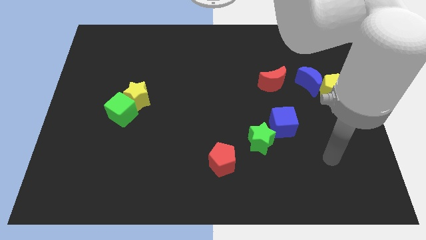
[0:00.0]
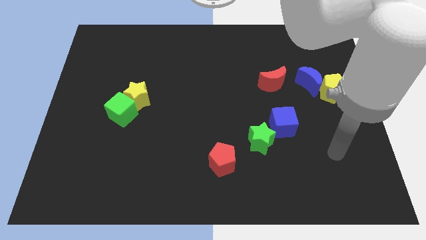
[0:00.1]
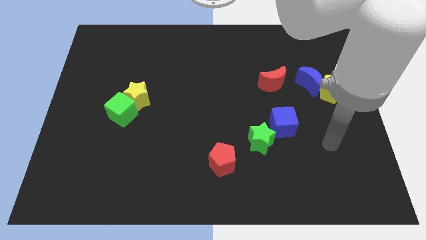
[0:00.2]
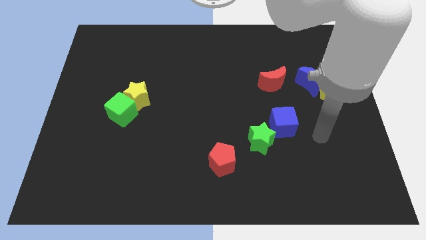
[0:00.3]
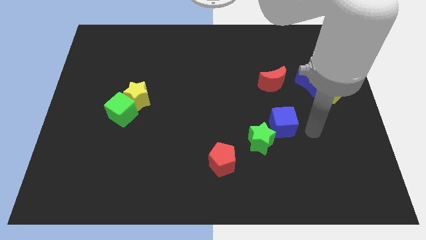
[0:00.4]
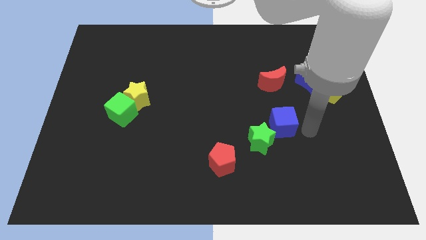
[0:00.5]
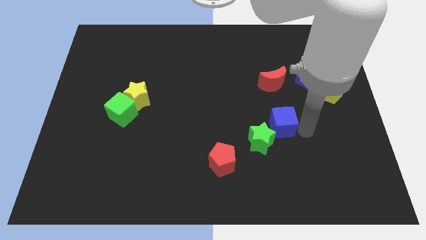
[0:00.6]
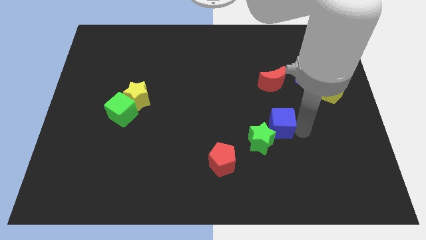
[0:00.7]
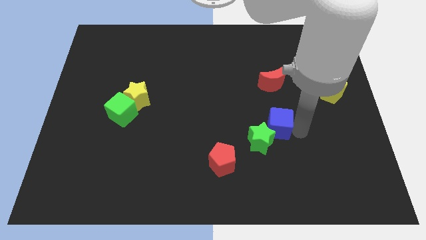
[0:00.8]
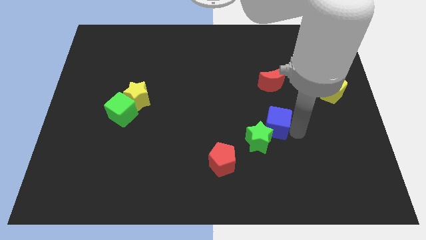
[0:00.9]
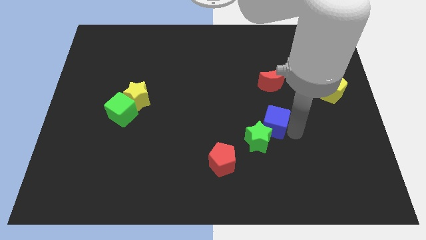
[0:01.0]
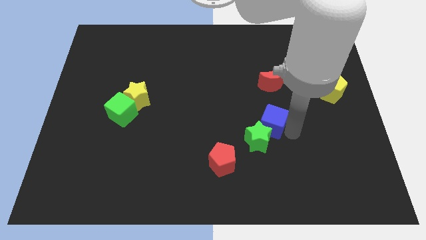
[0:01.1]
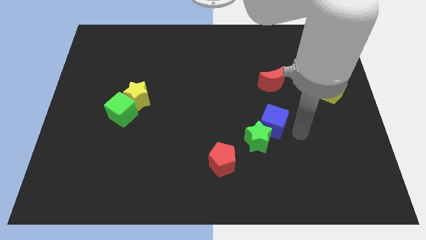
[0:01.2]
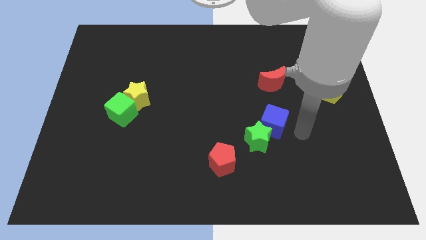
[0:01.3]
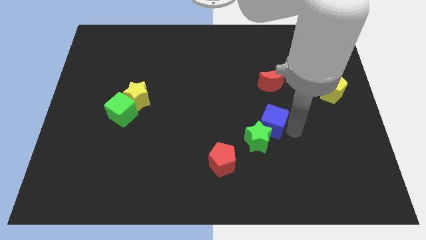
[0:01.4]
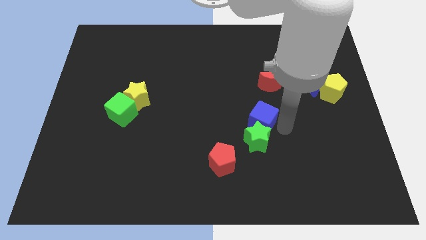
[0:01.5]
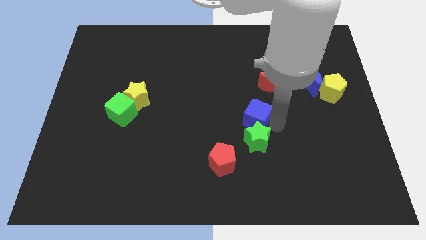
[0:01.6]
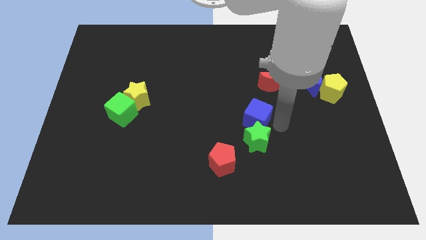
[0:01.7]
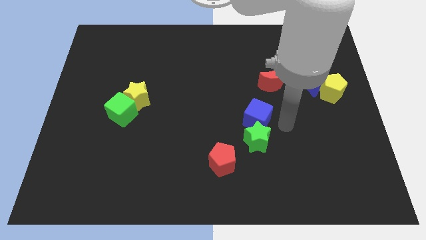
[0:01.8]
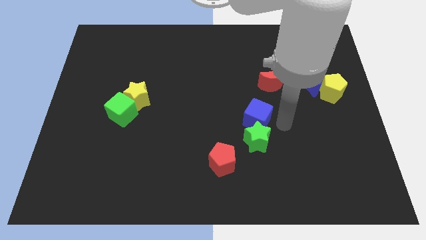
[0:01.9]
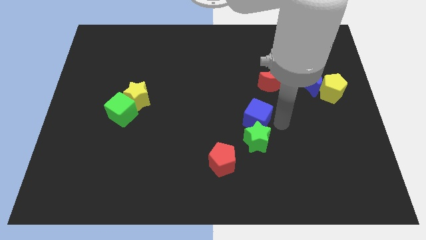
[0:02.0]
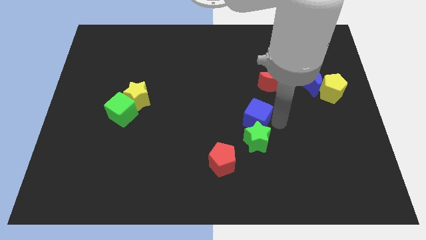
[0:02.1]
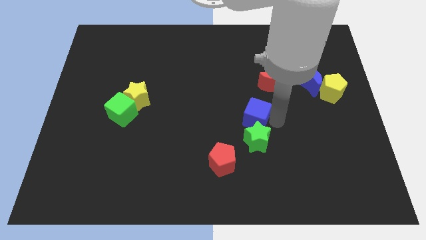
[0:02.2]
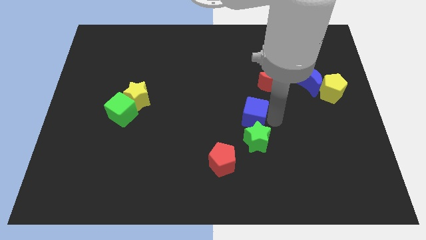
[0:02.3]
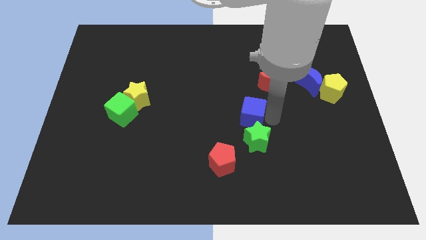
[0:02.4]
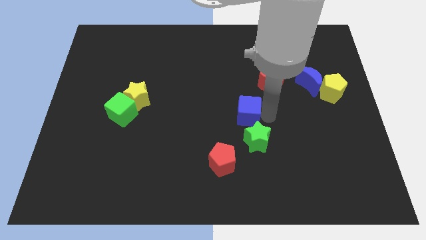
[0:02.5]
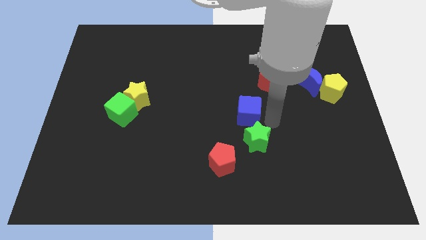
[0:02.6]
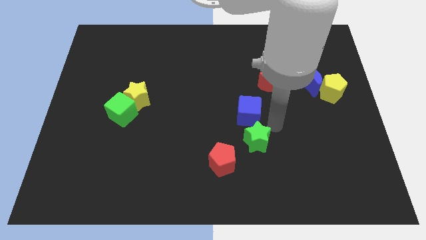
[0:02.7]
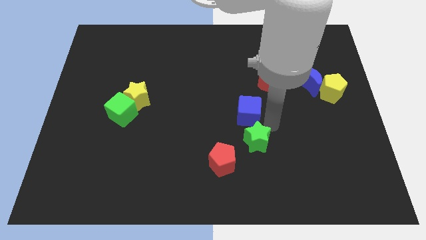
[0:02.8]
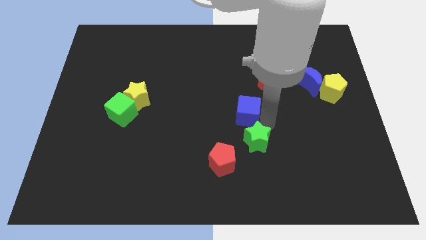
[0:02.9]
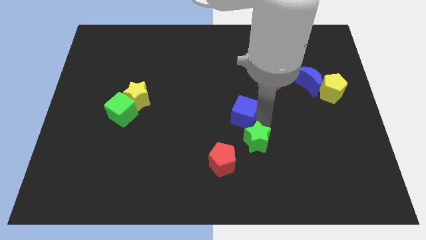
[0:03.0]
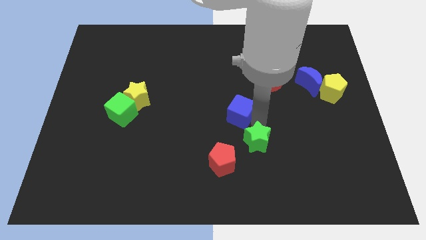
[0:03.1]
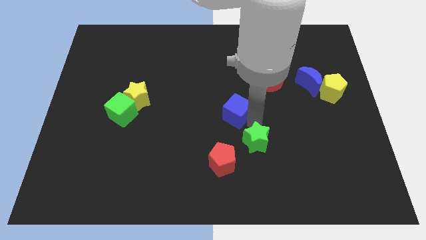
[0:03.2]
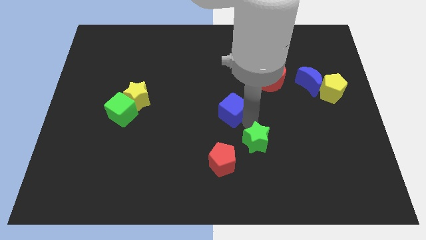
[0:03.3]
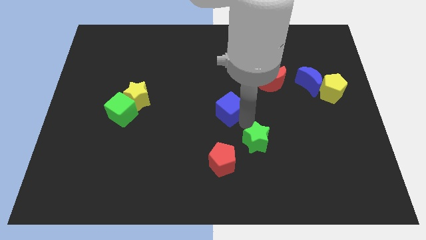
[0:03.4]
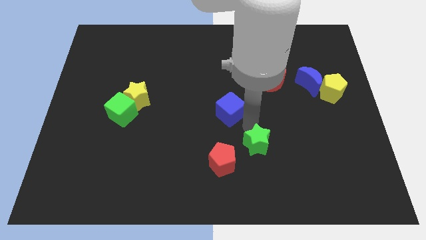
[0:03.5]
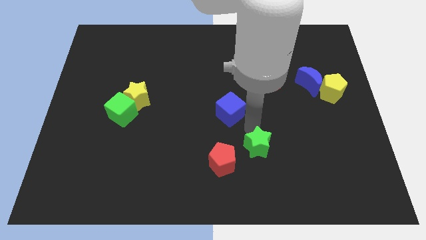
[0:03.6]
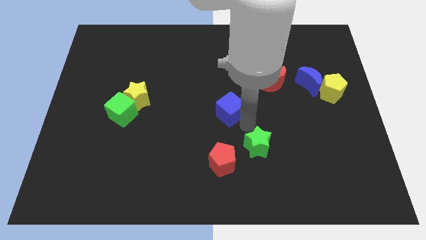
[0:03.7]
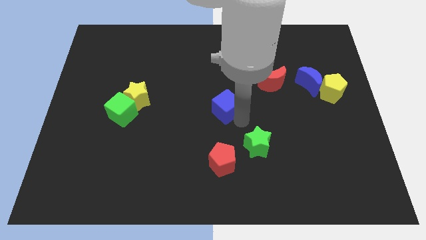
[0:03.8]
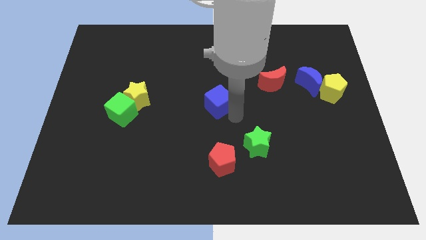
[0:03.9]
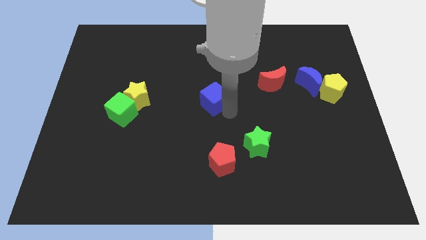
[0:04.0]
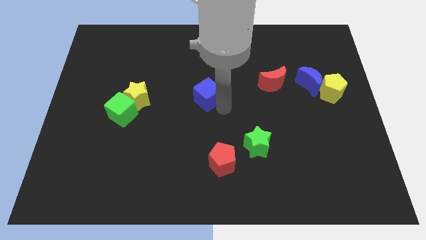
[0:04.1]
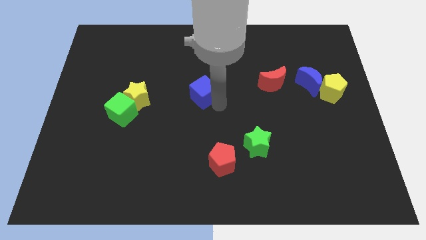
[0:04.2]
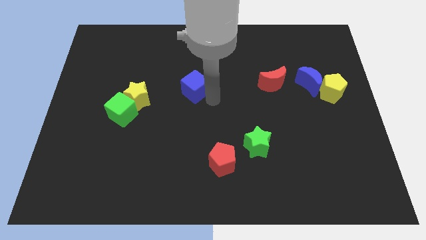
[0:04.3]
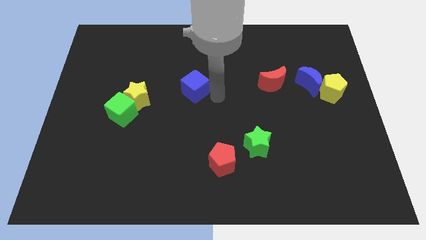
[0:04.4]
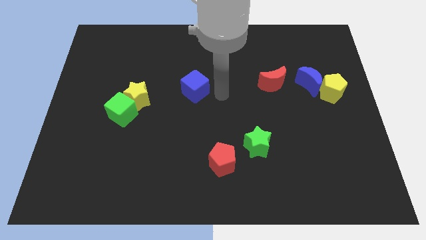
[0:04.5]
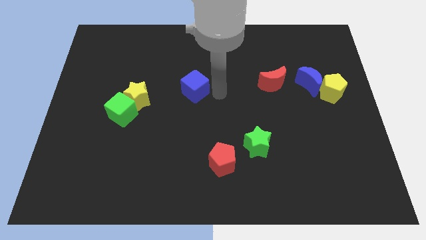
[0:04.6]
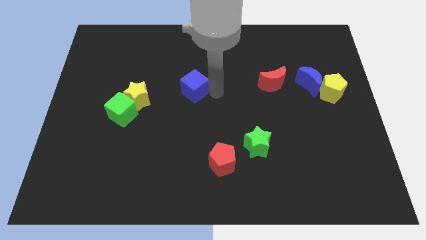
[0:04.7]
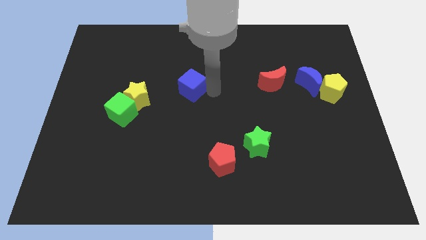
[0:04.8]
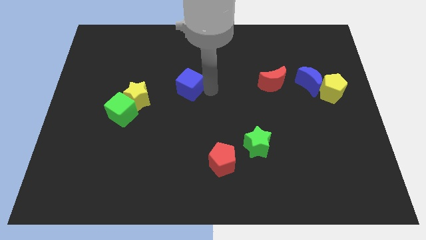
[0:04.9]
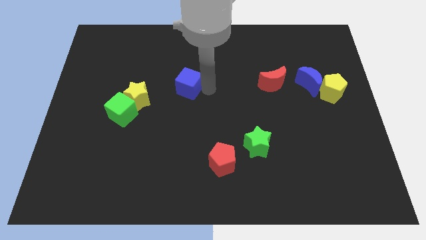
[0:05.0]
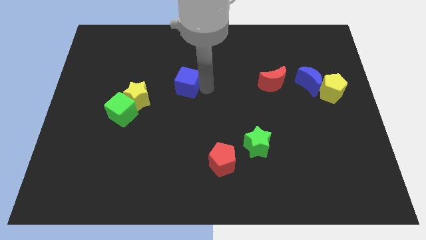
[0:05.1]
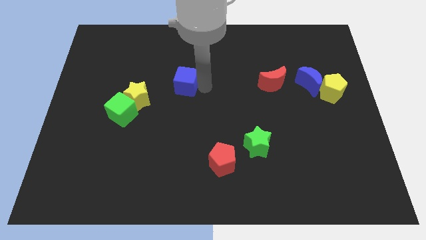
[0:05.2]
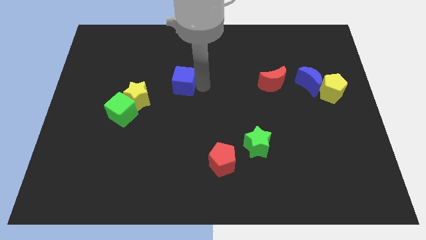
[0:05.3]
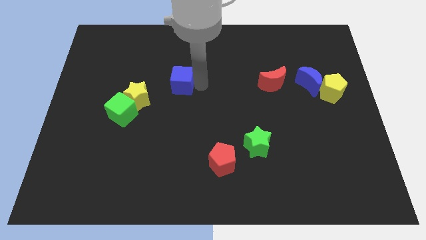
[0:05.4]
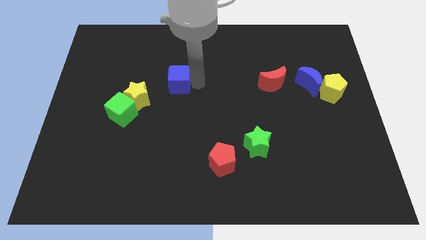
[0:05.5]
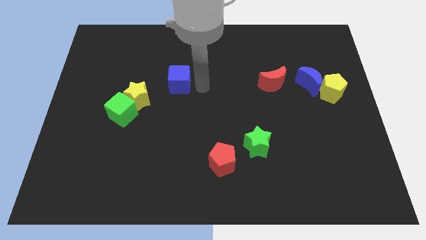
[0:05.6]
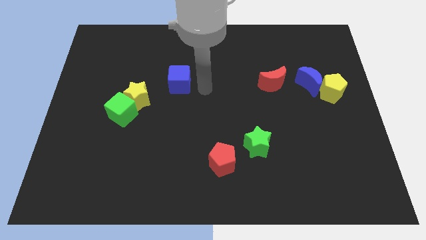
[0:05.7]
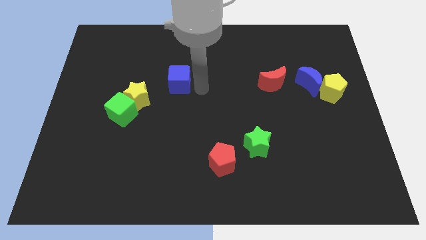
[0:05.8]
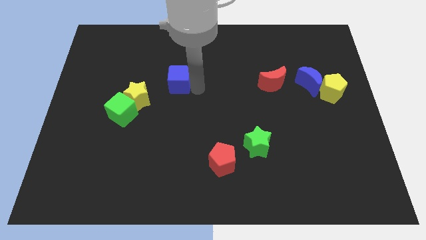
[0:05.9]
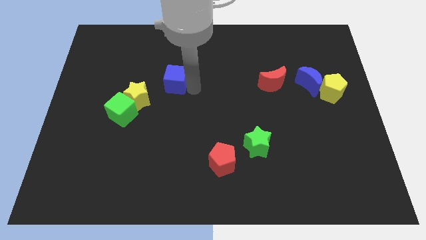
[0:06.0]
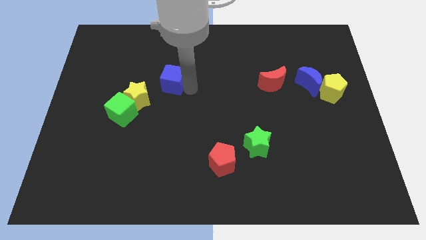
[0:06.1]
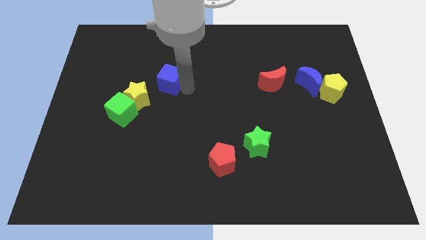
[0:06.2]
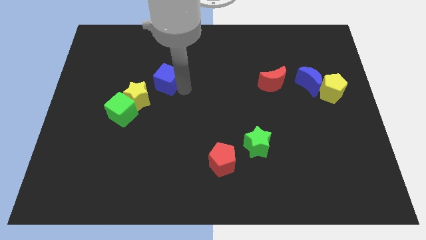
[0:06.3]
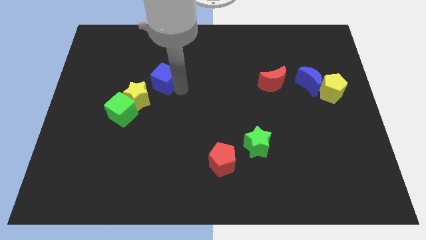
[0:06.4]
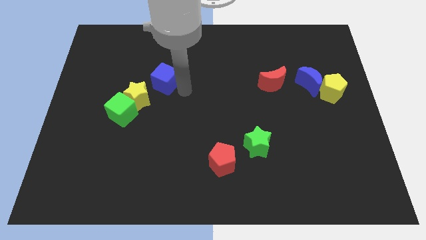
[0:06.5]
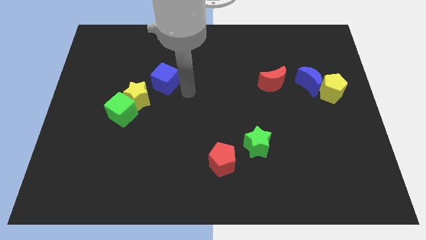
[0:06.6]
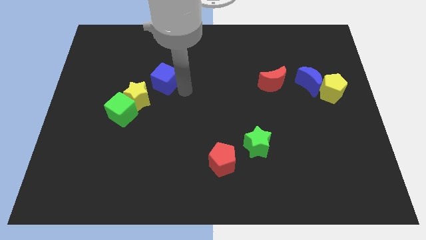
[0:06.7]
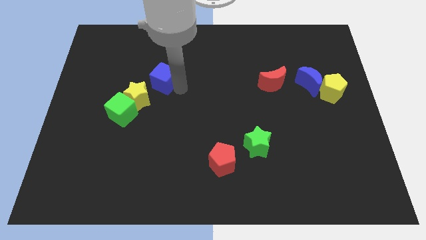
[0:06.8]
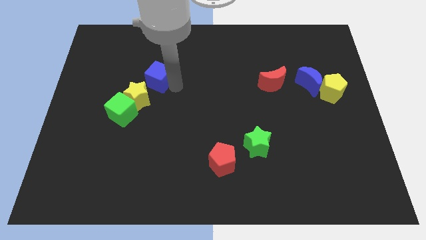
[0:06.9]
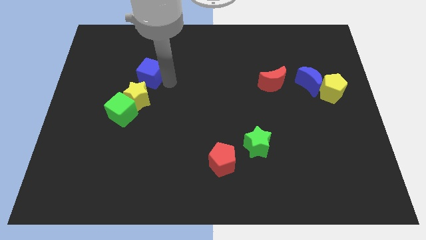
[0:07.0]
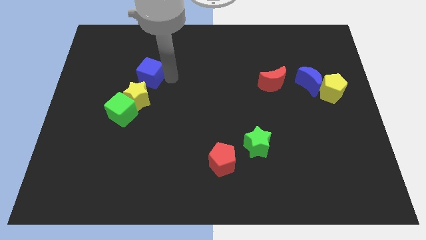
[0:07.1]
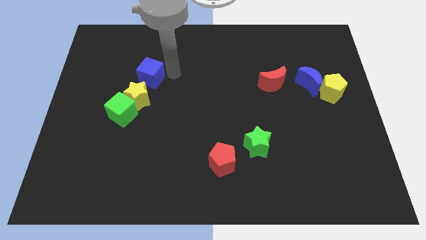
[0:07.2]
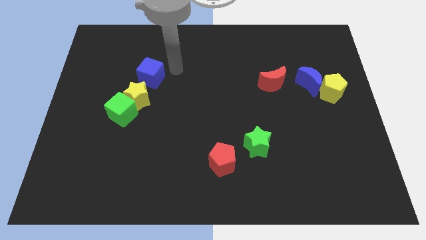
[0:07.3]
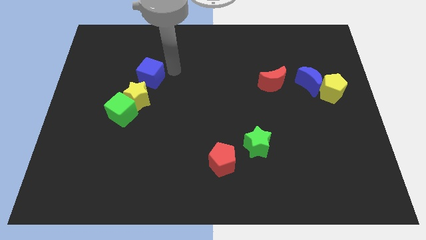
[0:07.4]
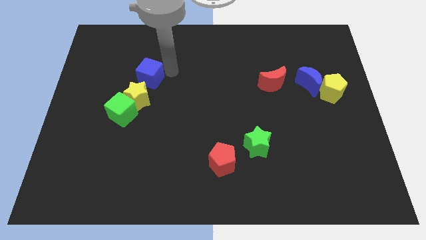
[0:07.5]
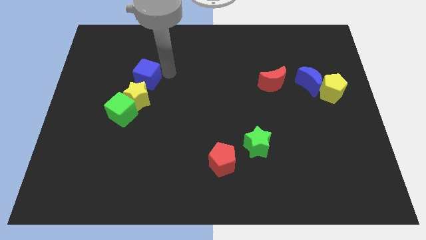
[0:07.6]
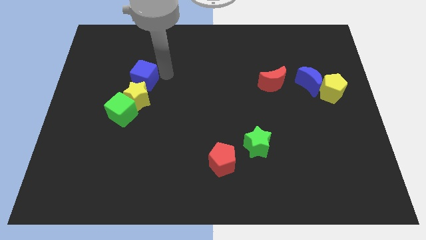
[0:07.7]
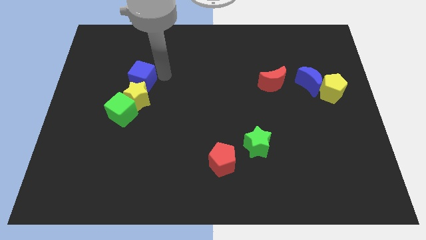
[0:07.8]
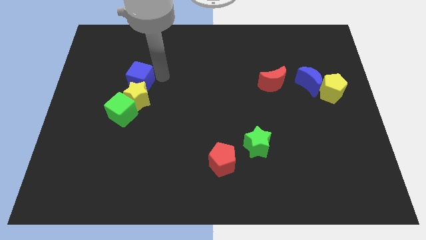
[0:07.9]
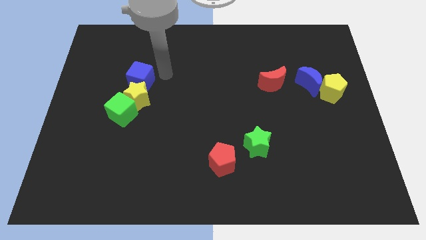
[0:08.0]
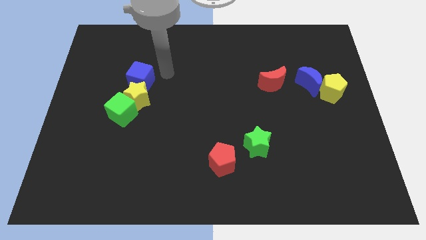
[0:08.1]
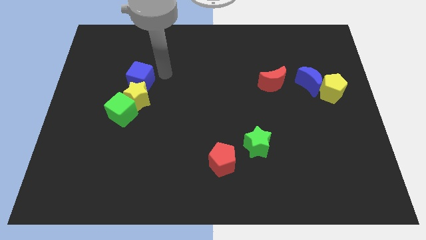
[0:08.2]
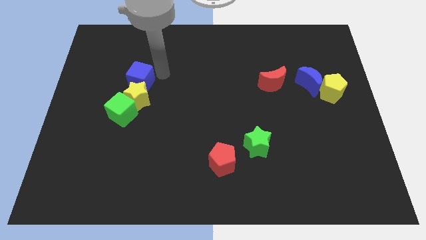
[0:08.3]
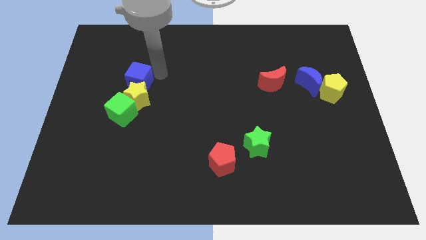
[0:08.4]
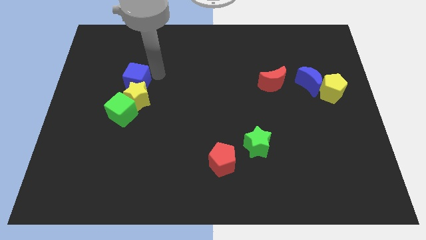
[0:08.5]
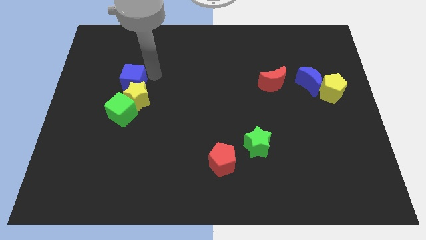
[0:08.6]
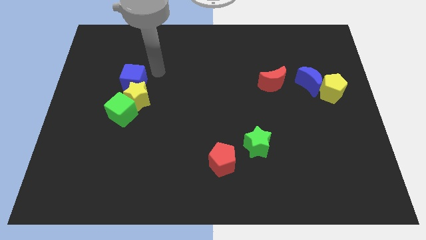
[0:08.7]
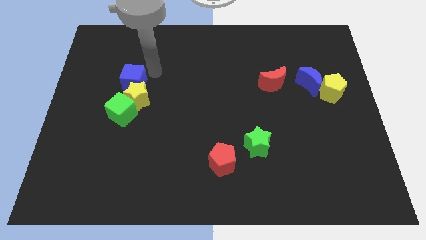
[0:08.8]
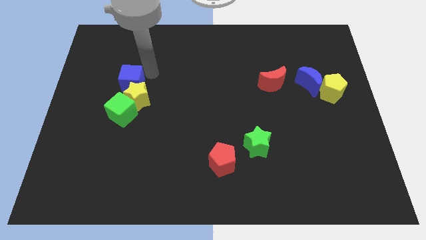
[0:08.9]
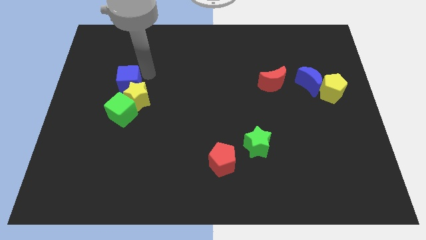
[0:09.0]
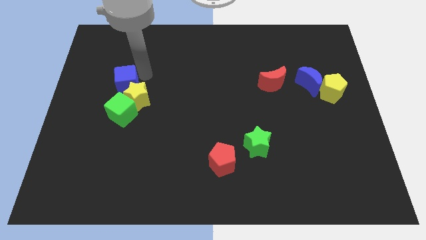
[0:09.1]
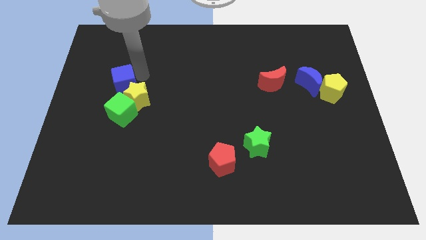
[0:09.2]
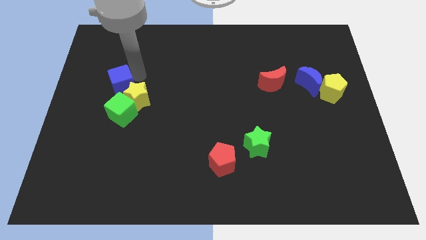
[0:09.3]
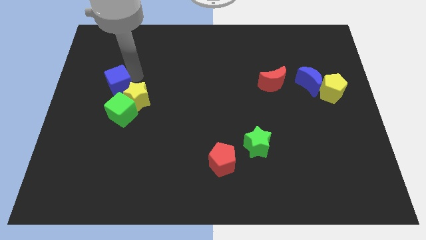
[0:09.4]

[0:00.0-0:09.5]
slide the blue cube to the top left side of the green cube
